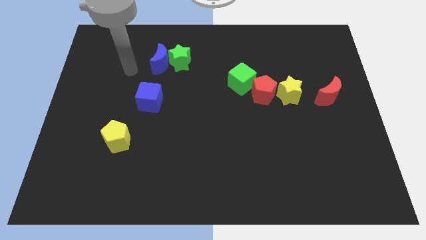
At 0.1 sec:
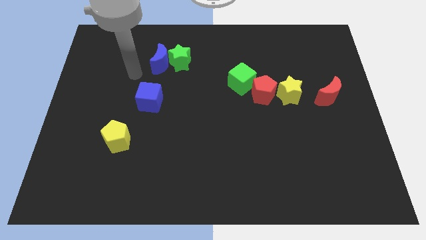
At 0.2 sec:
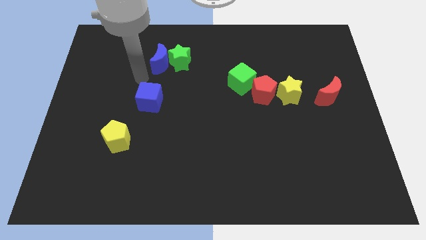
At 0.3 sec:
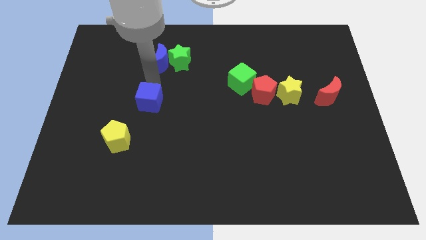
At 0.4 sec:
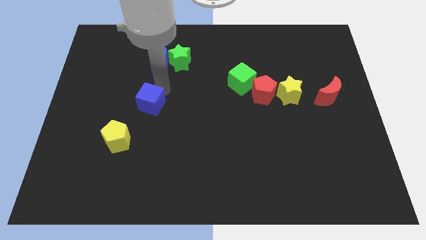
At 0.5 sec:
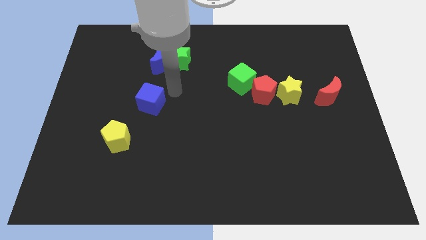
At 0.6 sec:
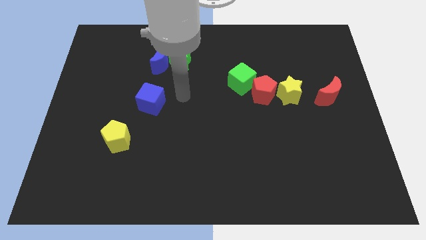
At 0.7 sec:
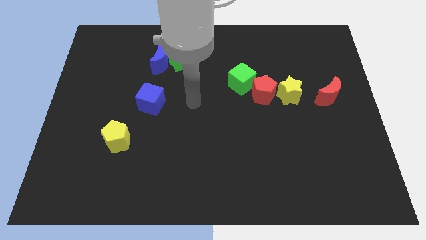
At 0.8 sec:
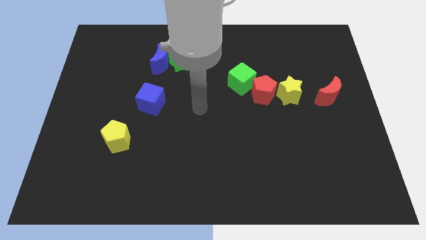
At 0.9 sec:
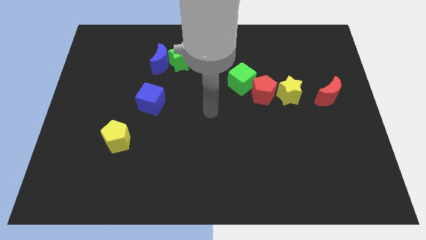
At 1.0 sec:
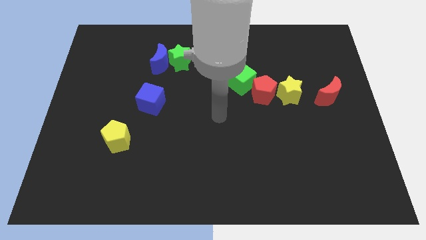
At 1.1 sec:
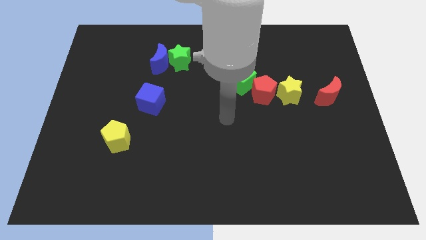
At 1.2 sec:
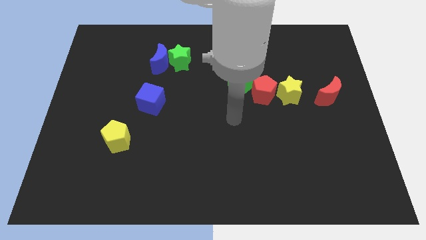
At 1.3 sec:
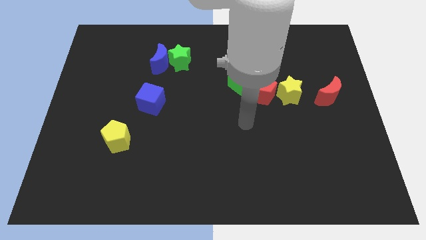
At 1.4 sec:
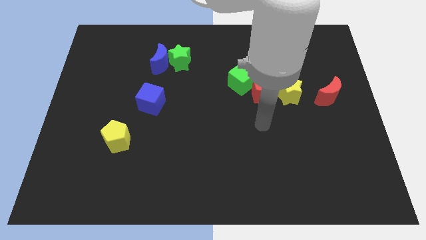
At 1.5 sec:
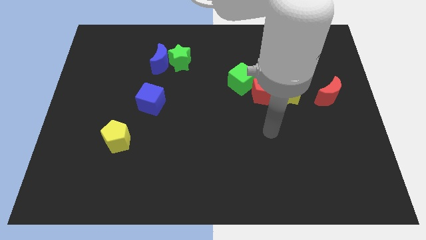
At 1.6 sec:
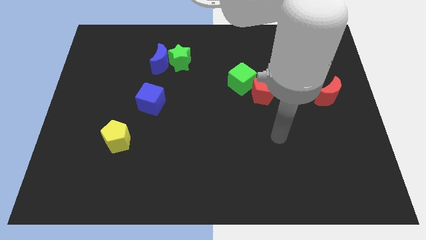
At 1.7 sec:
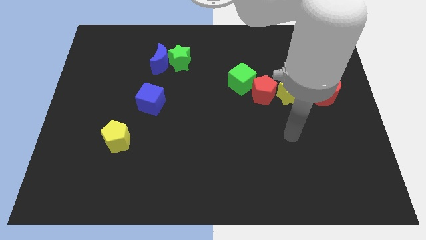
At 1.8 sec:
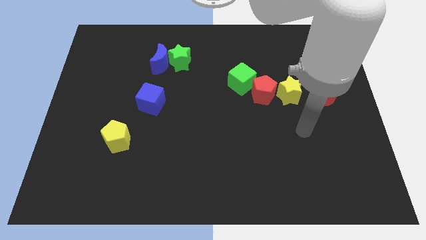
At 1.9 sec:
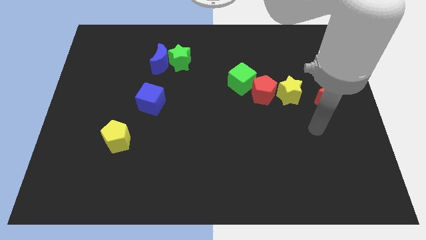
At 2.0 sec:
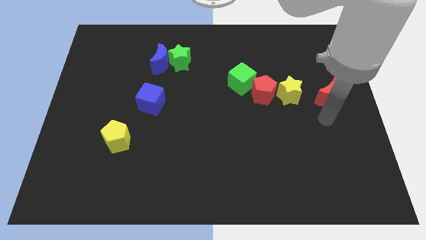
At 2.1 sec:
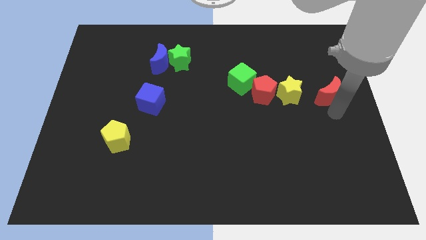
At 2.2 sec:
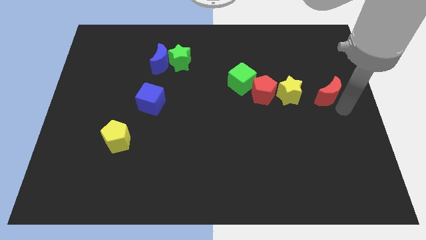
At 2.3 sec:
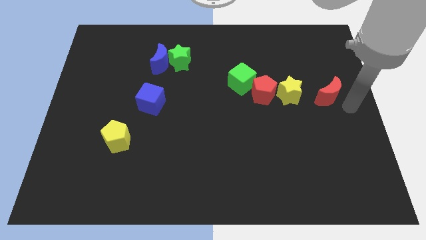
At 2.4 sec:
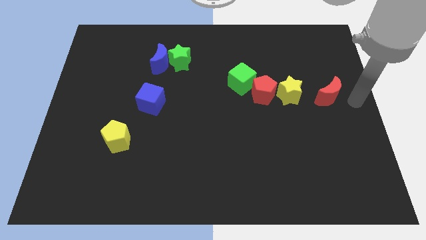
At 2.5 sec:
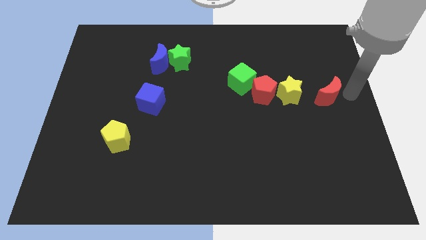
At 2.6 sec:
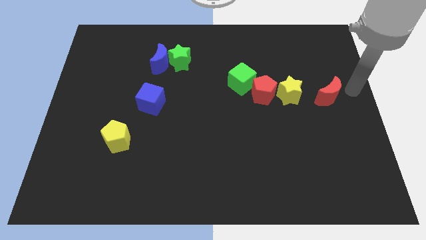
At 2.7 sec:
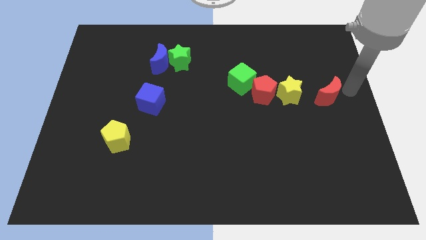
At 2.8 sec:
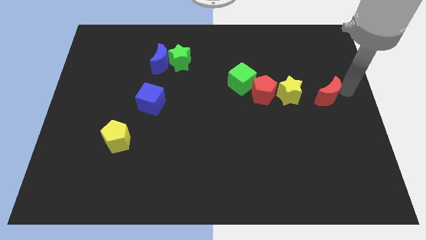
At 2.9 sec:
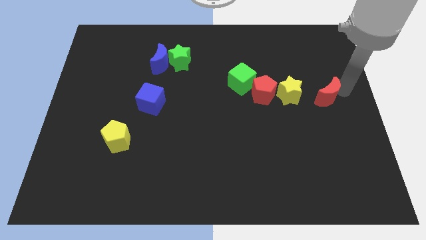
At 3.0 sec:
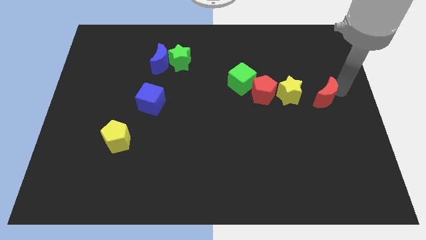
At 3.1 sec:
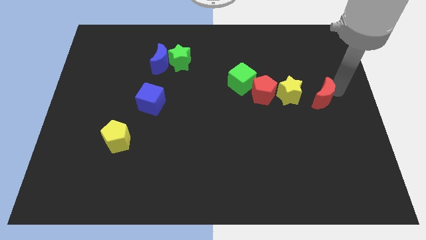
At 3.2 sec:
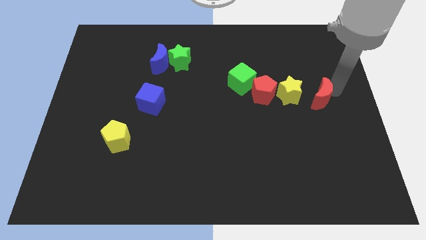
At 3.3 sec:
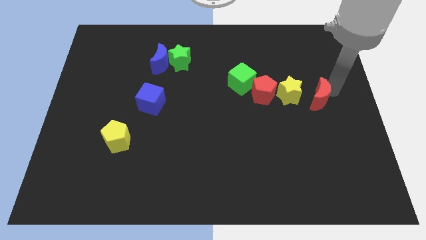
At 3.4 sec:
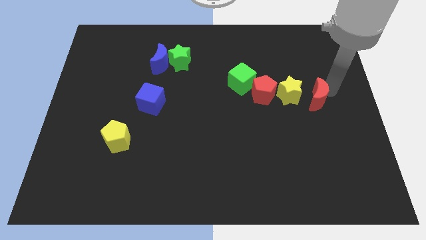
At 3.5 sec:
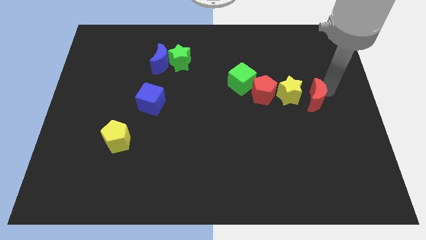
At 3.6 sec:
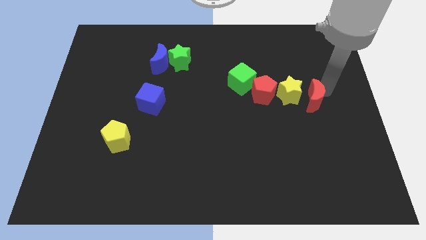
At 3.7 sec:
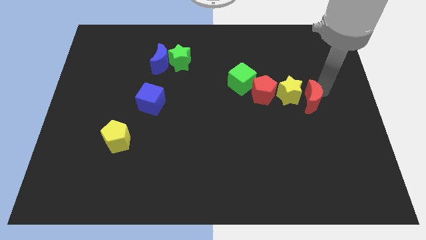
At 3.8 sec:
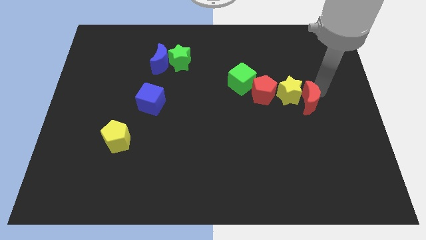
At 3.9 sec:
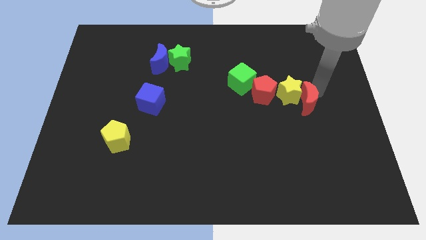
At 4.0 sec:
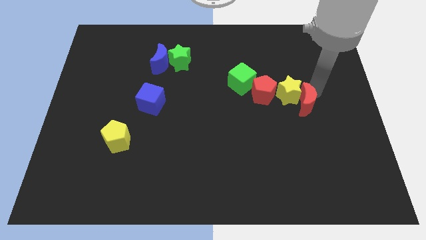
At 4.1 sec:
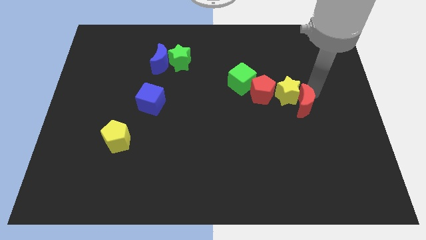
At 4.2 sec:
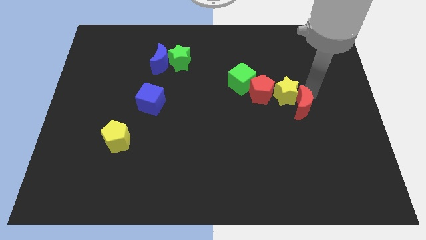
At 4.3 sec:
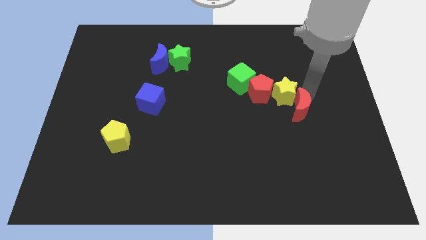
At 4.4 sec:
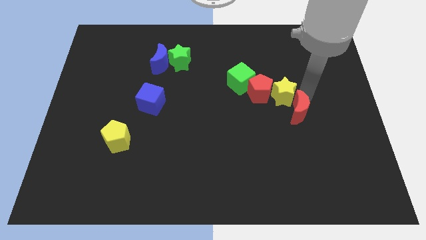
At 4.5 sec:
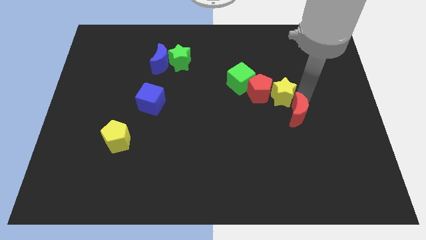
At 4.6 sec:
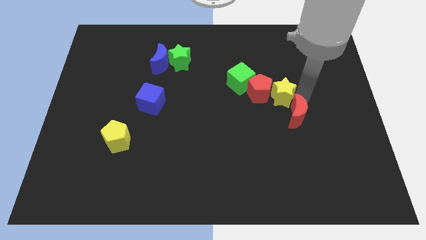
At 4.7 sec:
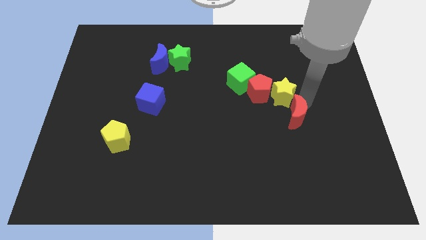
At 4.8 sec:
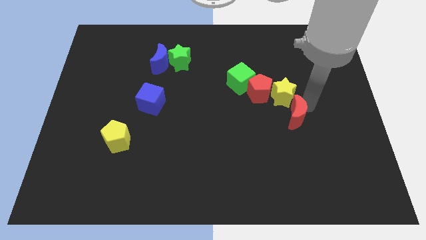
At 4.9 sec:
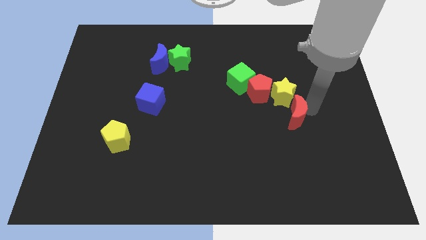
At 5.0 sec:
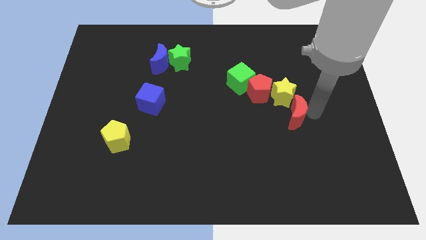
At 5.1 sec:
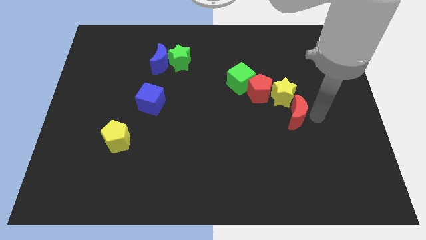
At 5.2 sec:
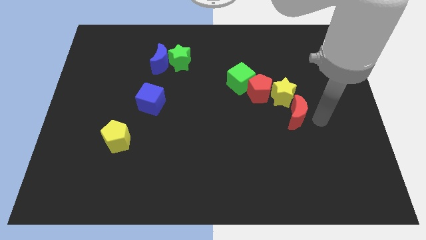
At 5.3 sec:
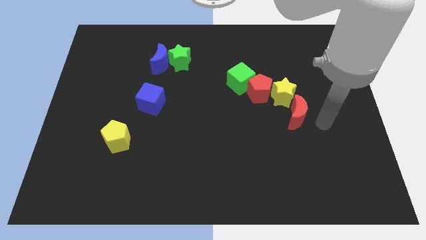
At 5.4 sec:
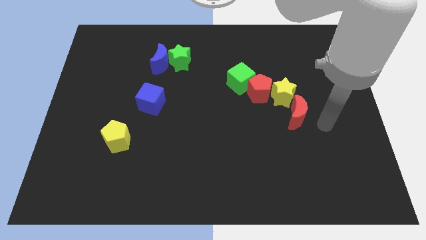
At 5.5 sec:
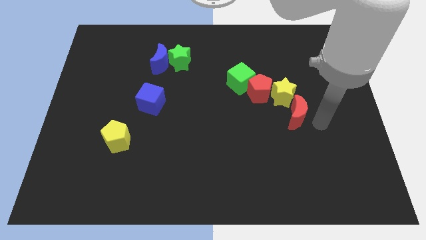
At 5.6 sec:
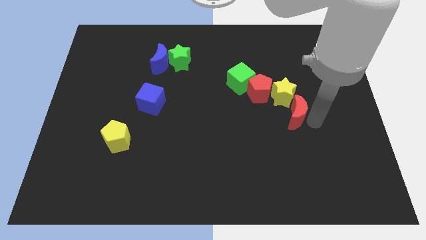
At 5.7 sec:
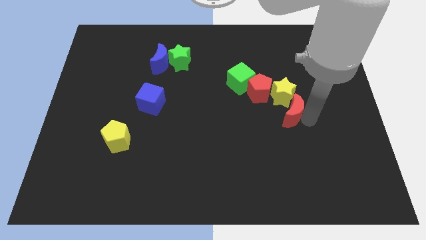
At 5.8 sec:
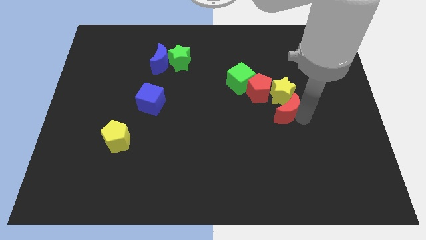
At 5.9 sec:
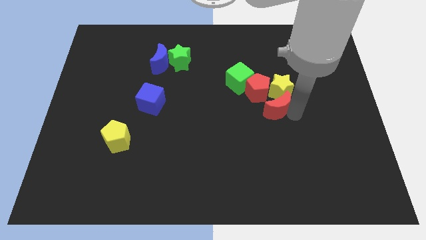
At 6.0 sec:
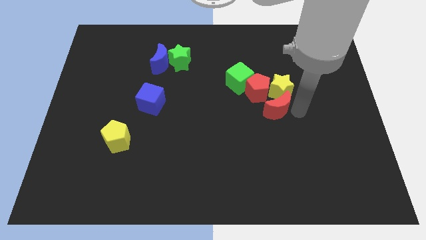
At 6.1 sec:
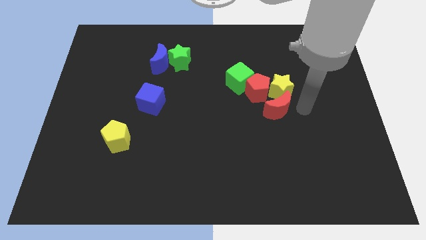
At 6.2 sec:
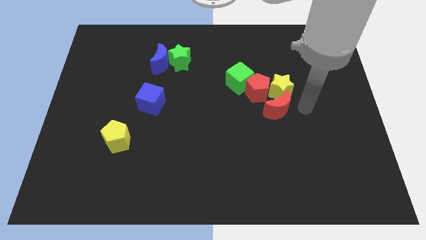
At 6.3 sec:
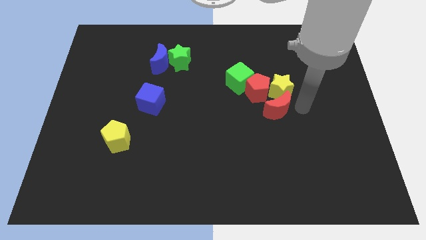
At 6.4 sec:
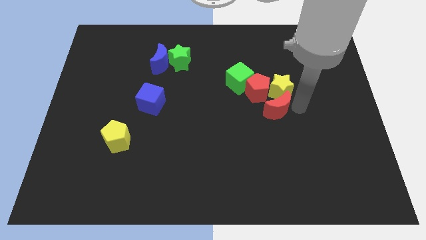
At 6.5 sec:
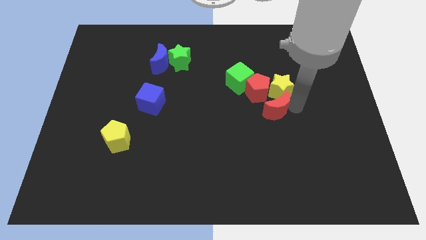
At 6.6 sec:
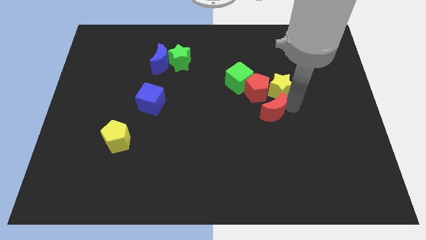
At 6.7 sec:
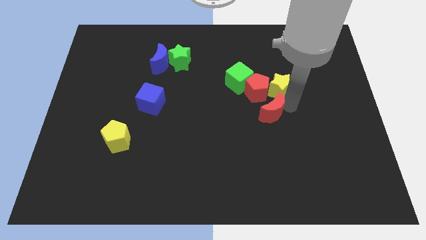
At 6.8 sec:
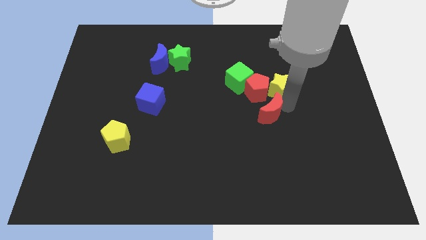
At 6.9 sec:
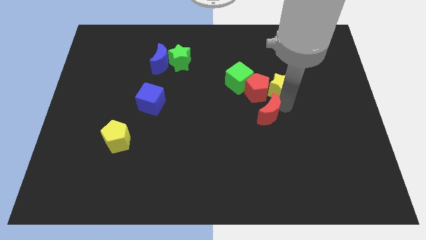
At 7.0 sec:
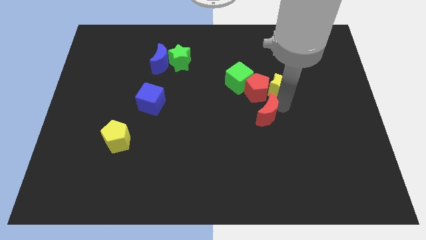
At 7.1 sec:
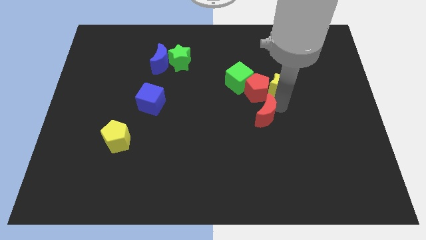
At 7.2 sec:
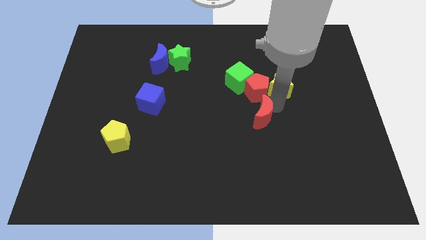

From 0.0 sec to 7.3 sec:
put the red moon to the middle of the board
